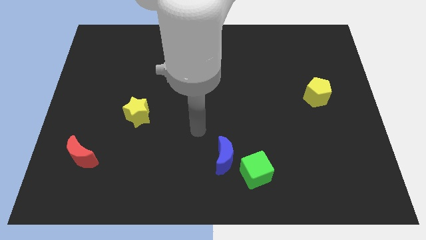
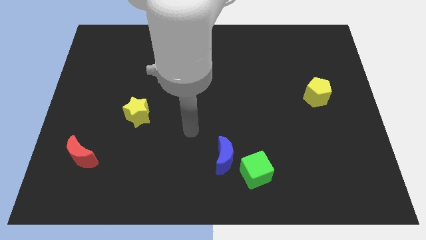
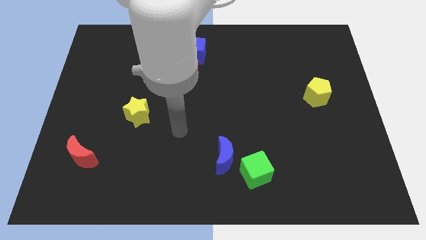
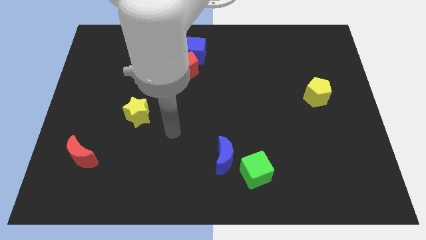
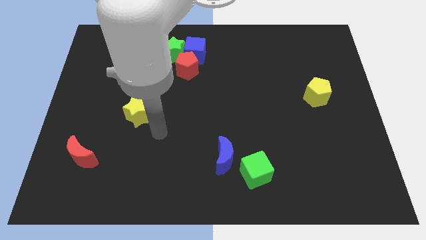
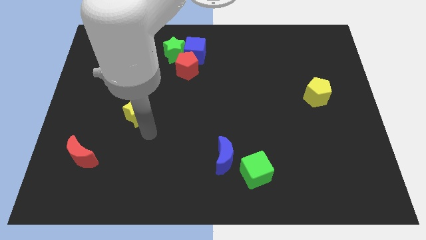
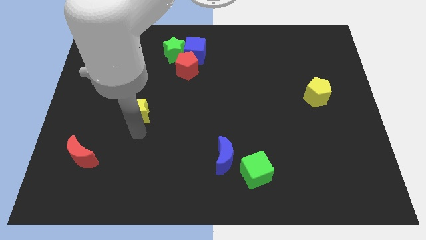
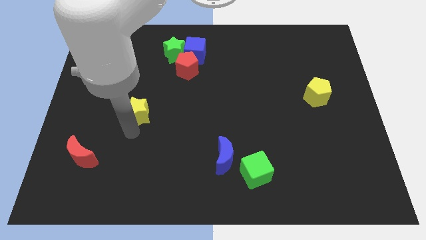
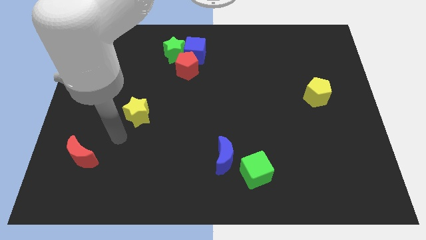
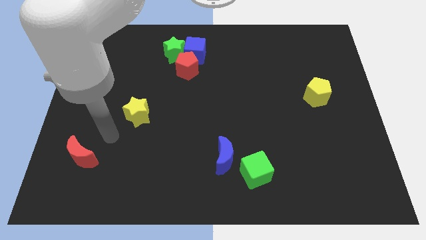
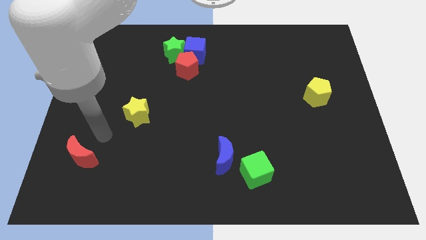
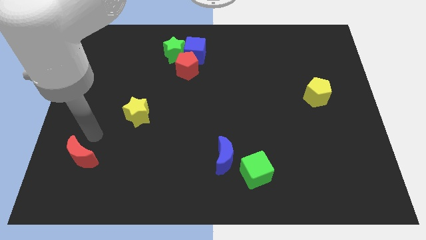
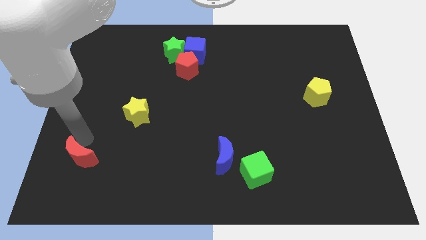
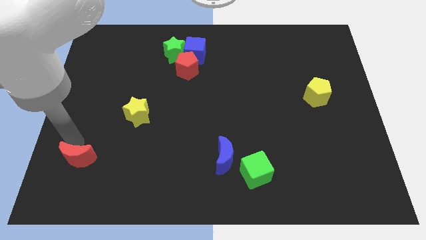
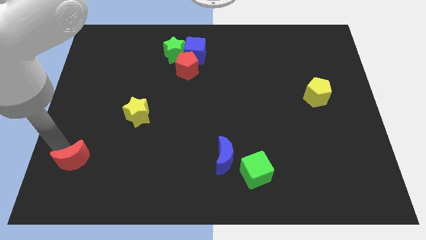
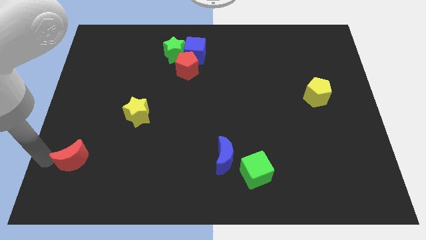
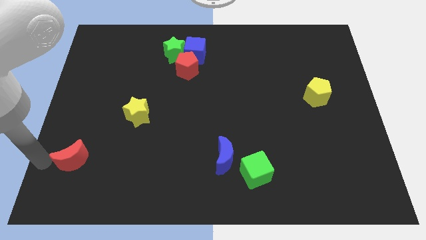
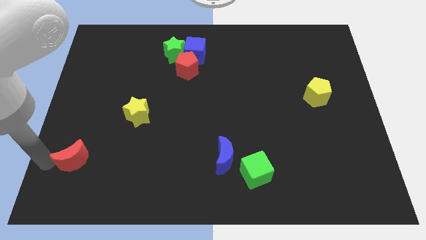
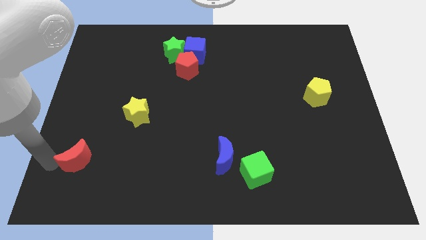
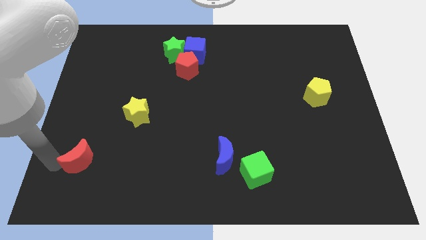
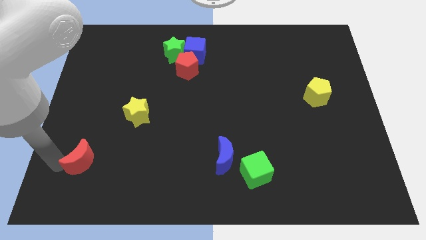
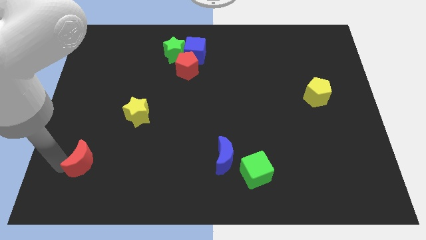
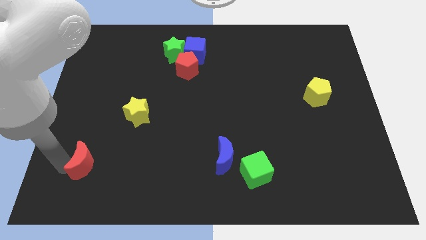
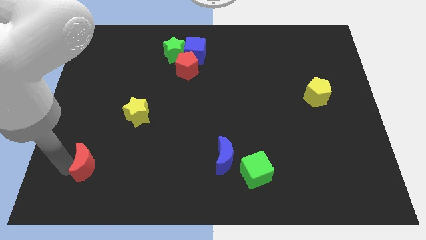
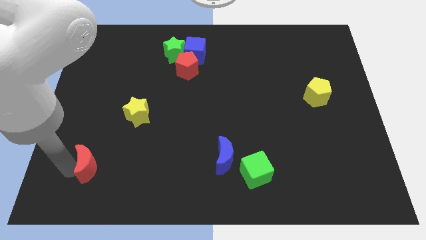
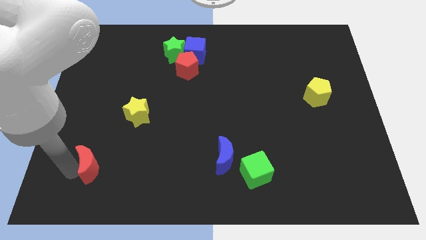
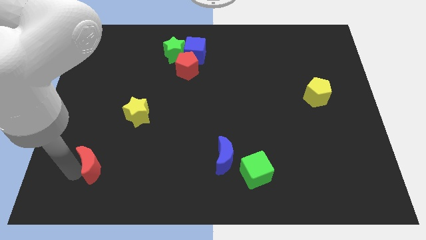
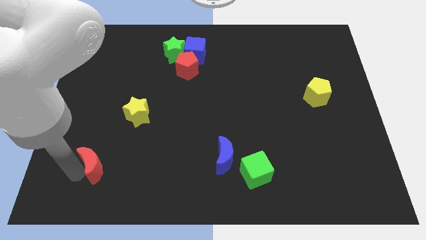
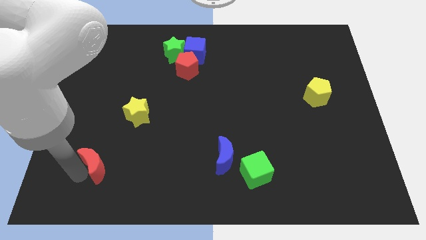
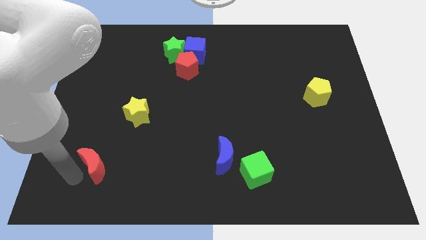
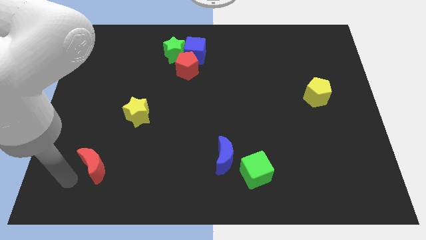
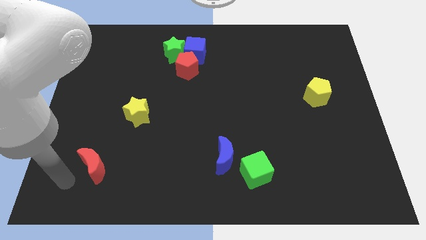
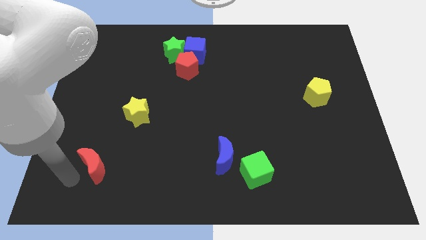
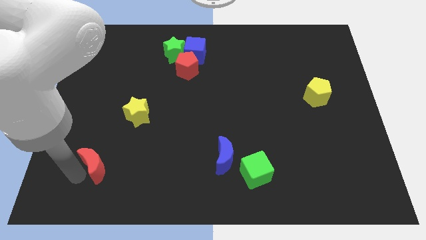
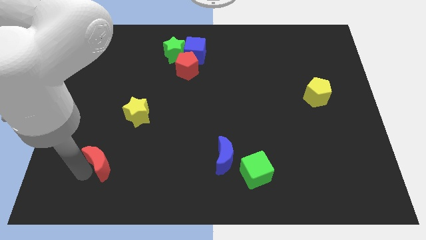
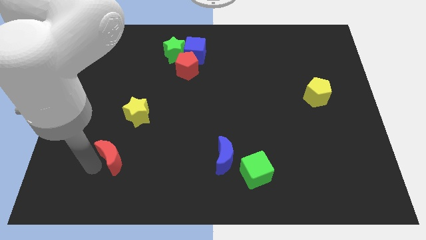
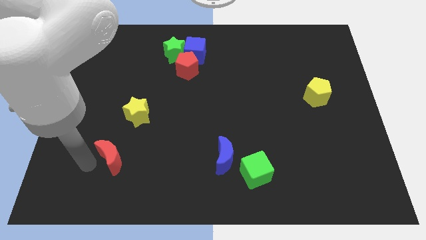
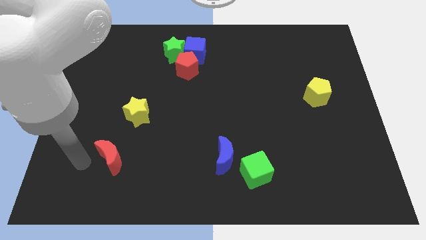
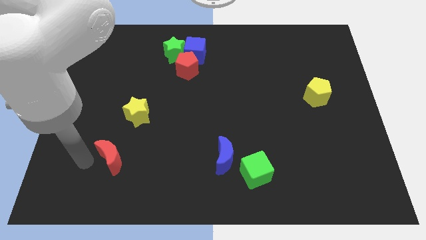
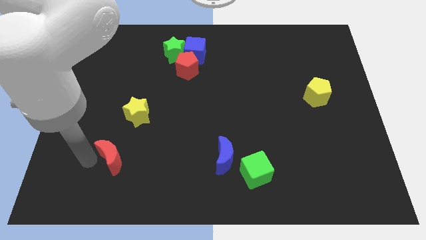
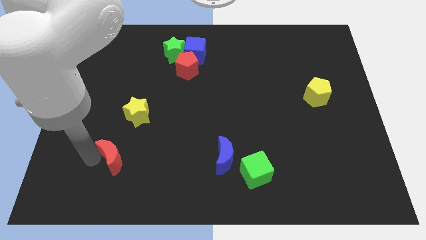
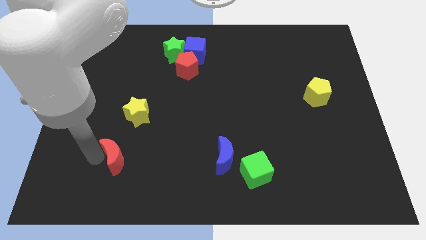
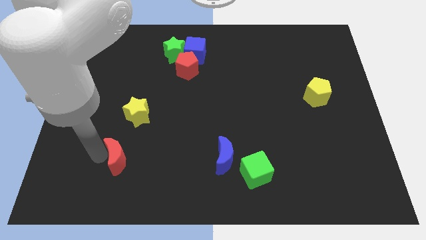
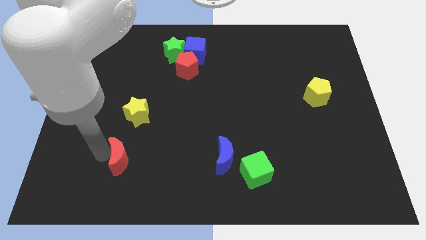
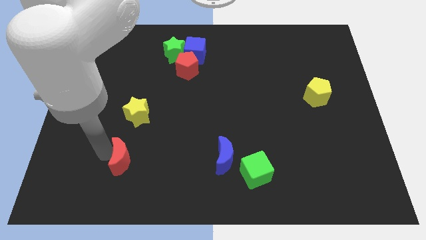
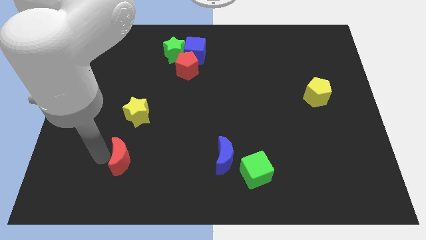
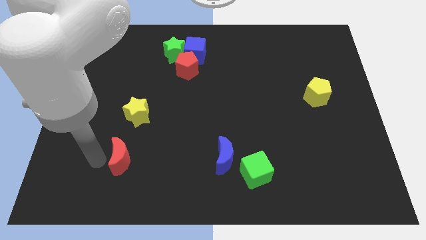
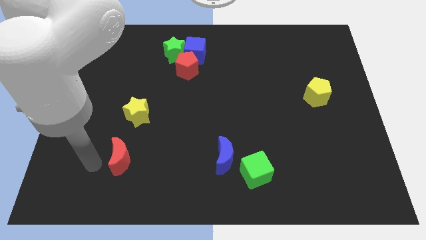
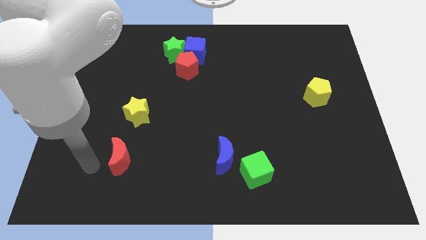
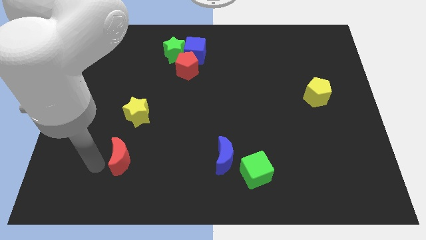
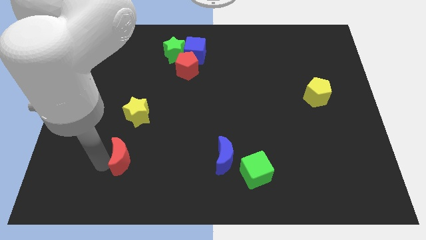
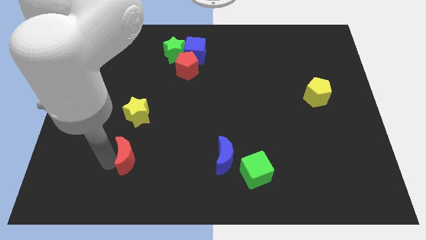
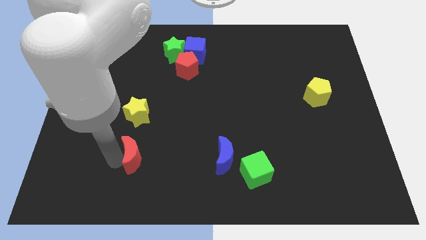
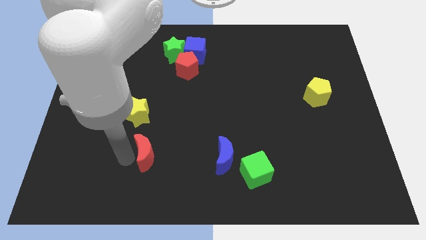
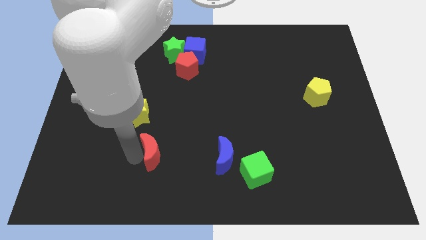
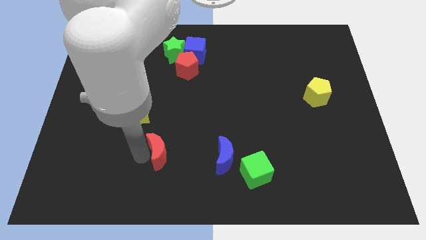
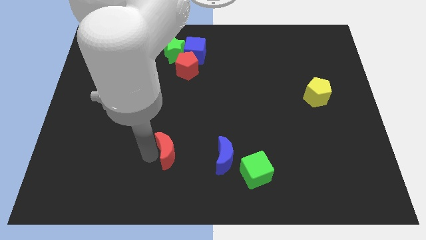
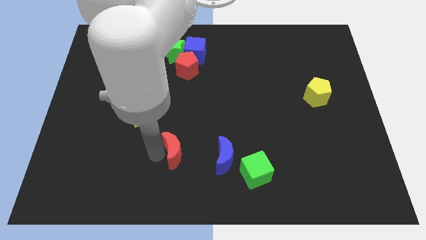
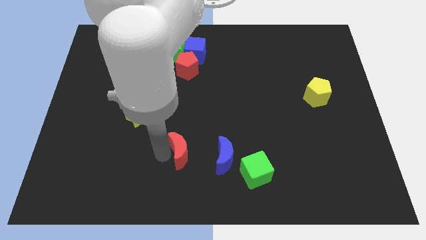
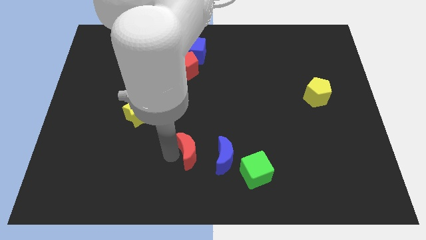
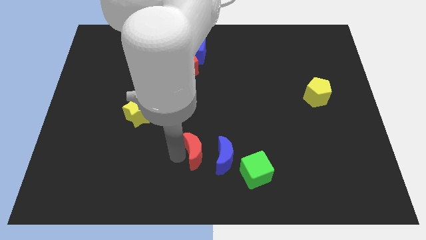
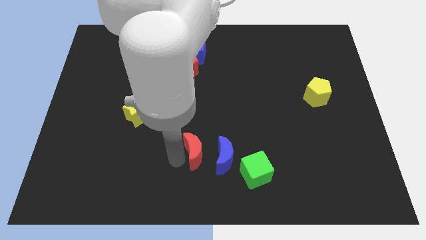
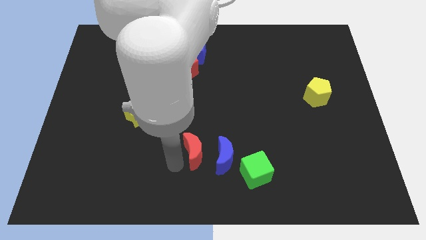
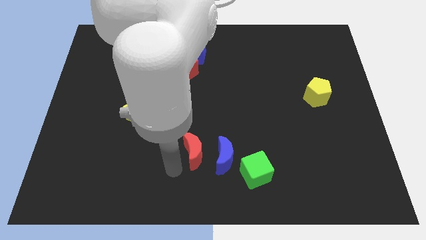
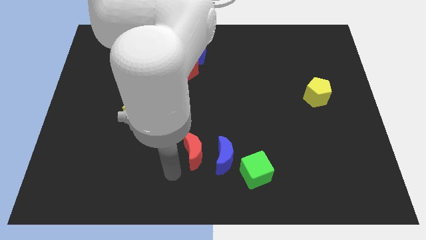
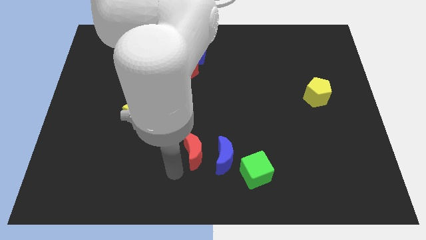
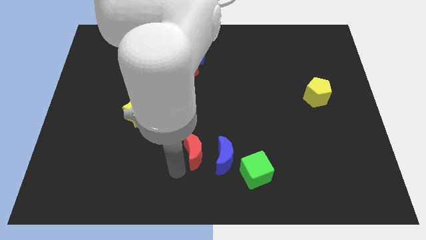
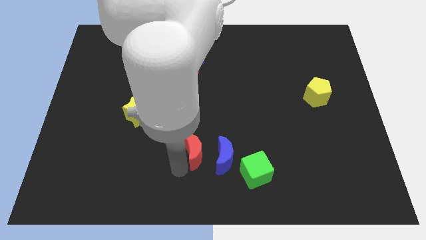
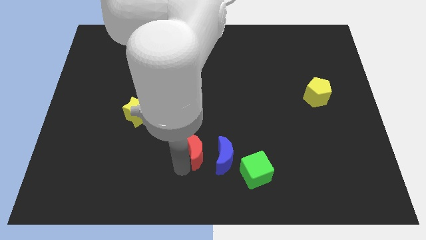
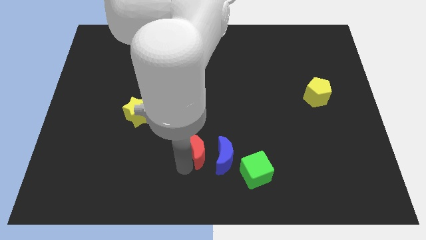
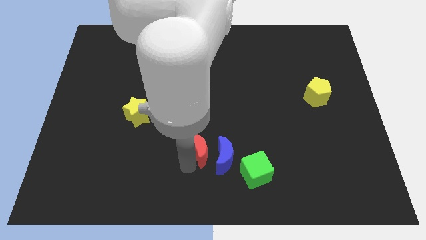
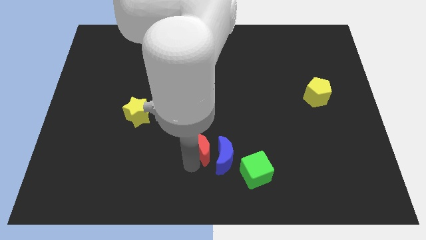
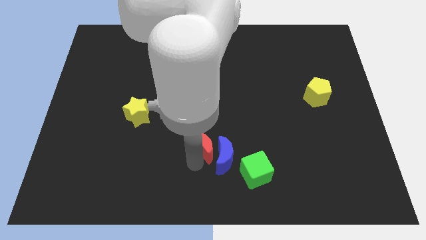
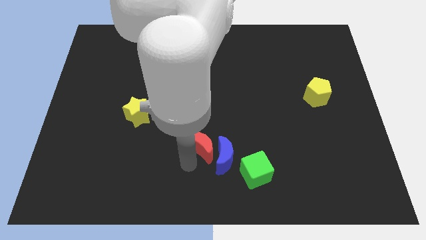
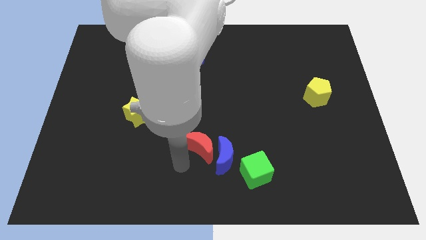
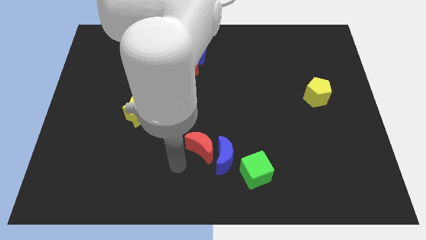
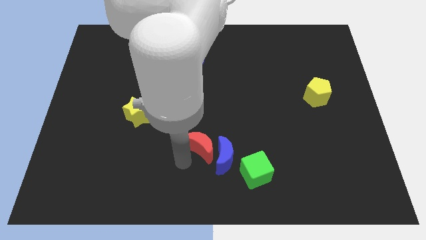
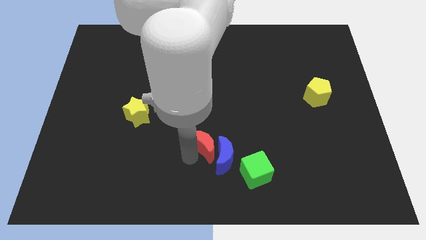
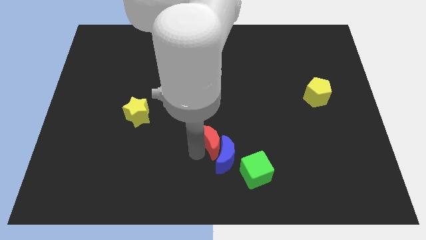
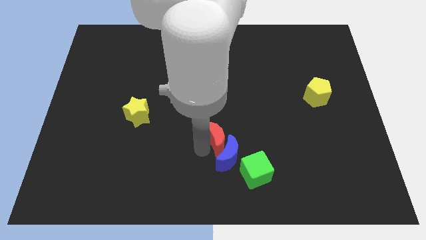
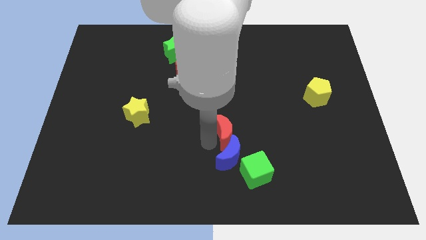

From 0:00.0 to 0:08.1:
put the red moon diagonally up and to the right of the blue moon
